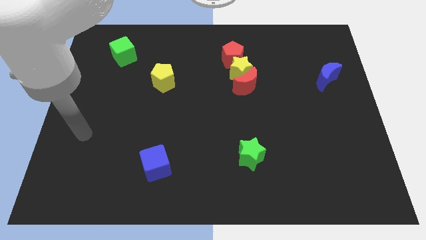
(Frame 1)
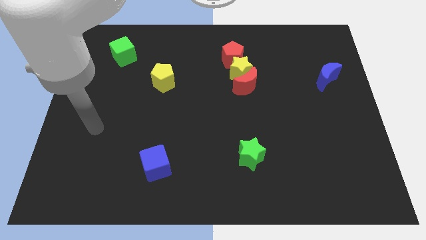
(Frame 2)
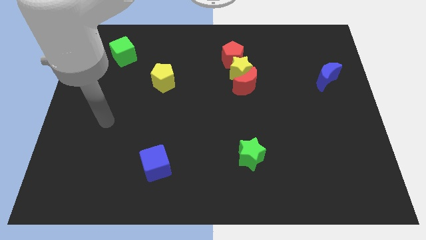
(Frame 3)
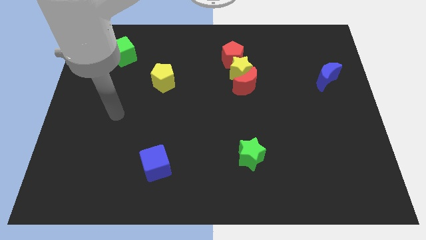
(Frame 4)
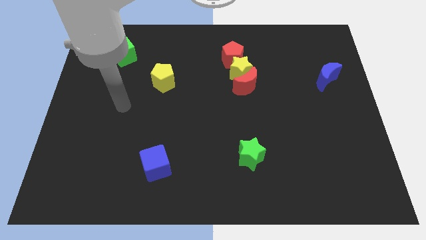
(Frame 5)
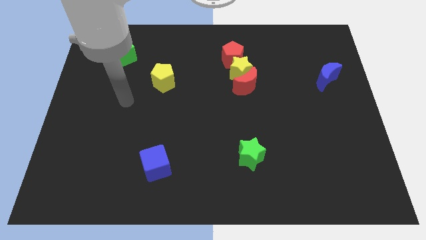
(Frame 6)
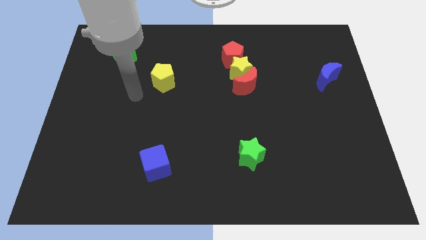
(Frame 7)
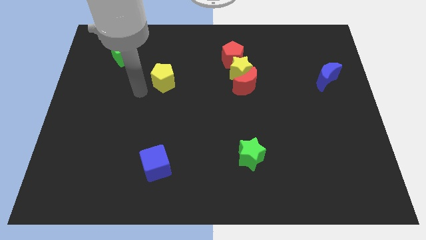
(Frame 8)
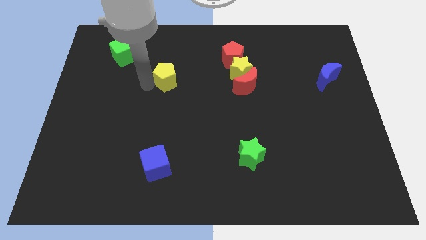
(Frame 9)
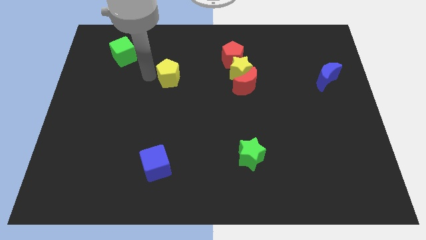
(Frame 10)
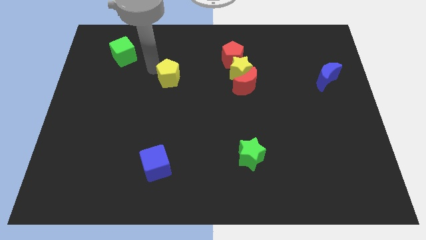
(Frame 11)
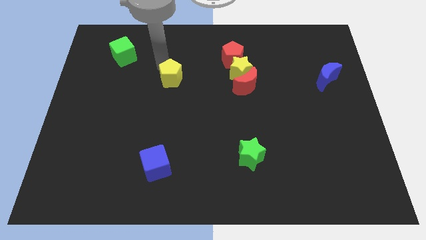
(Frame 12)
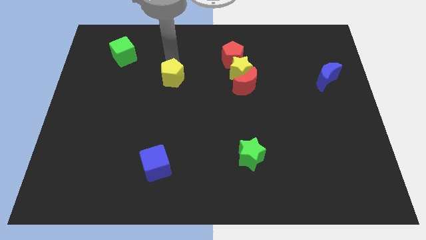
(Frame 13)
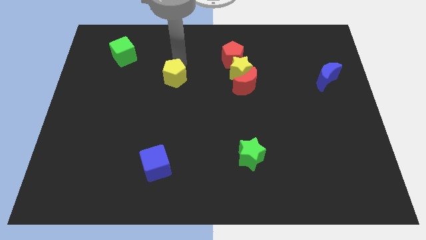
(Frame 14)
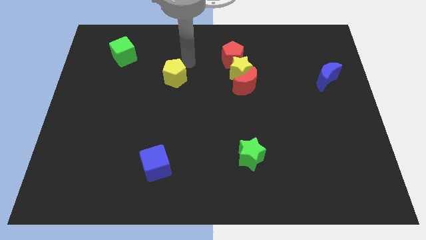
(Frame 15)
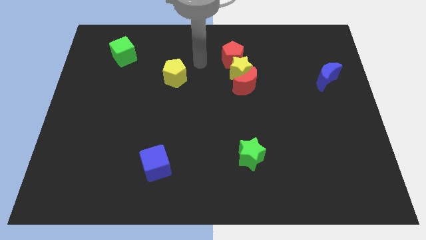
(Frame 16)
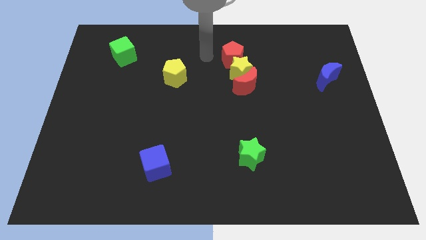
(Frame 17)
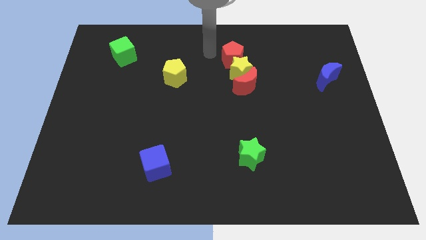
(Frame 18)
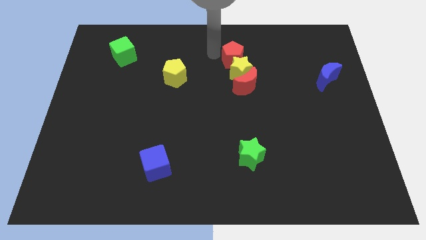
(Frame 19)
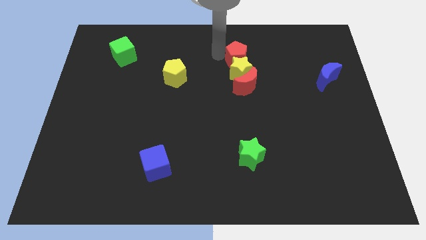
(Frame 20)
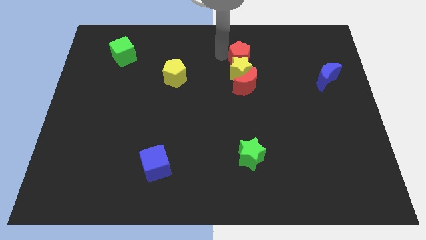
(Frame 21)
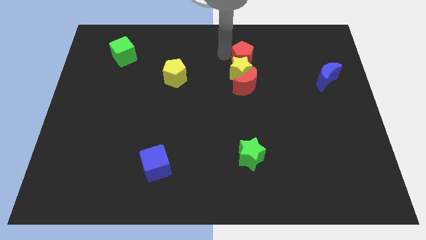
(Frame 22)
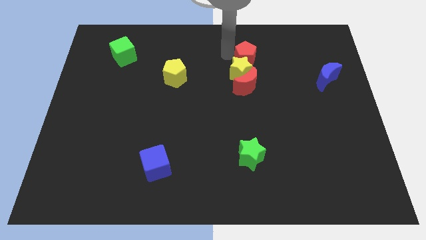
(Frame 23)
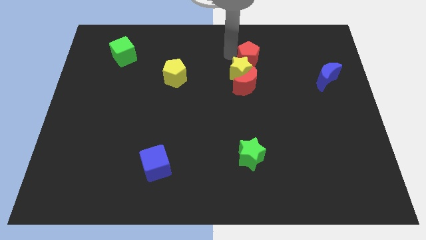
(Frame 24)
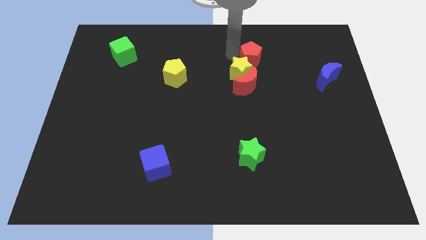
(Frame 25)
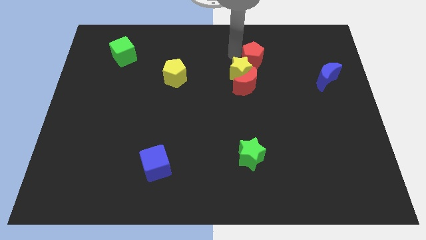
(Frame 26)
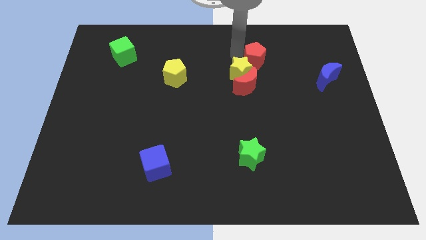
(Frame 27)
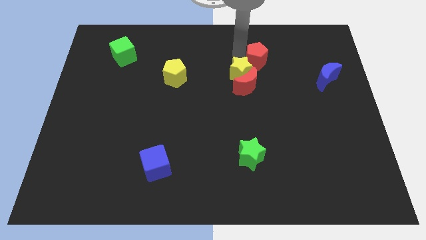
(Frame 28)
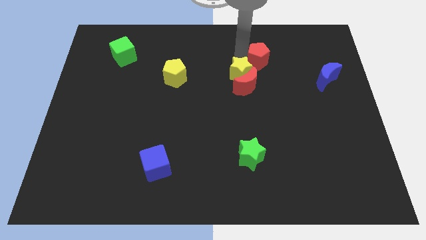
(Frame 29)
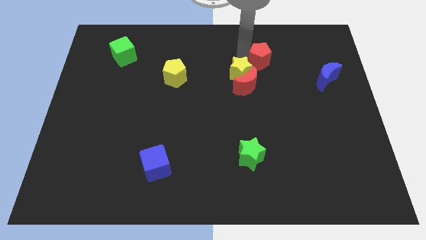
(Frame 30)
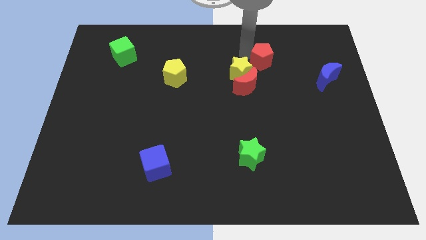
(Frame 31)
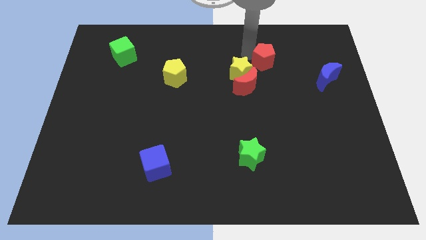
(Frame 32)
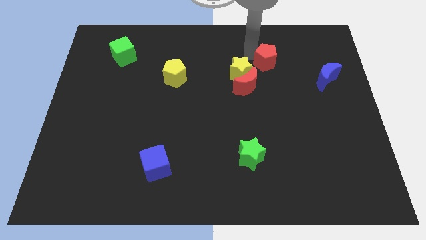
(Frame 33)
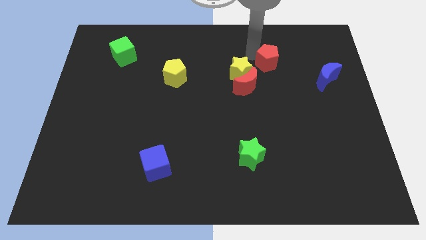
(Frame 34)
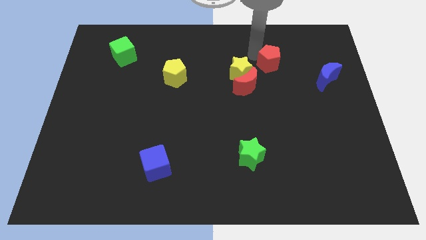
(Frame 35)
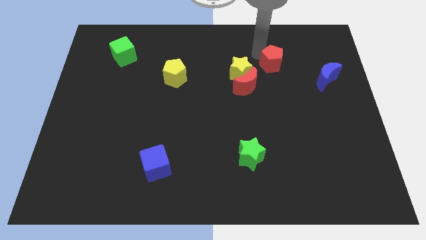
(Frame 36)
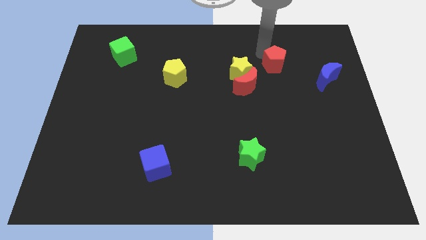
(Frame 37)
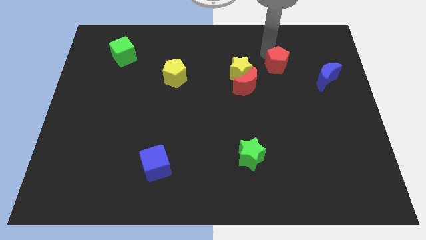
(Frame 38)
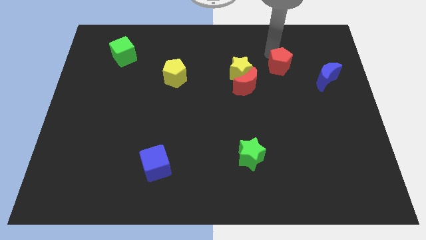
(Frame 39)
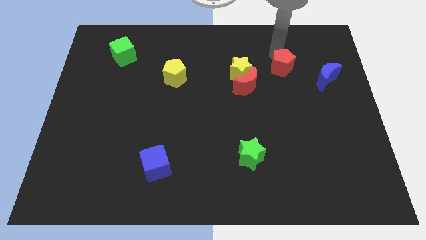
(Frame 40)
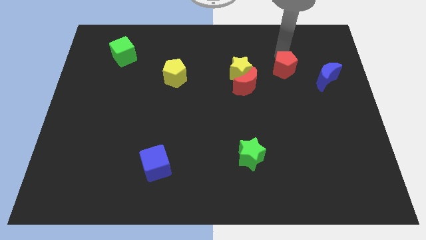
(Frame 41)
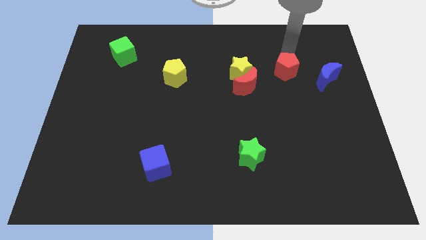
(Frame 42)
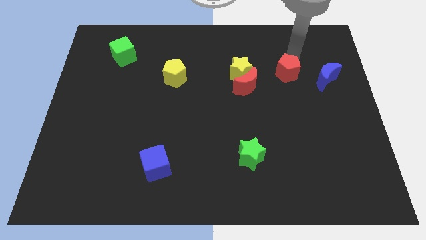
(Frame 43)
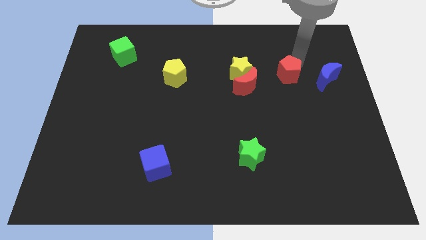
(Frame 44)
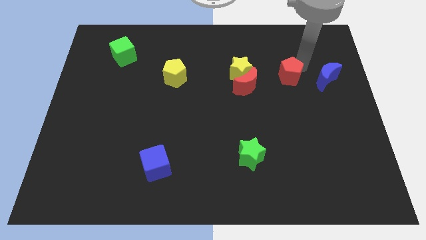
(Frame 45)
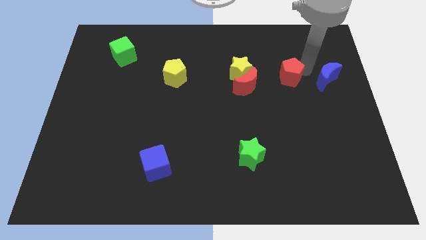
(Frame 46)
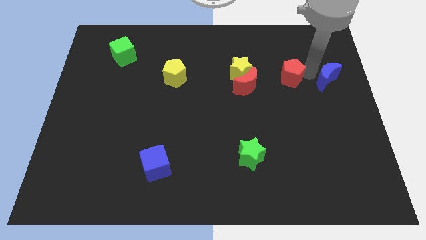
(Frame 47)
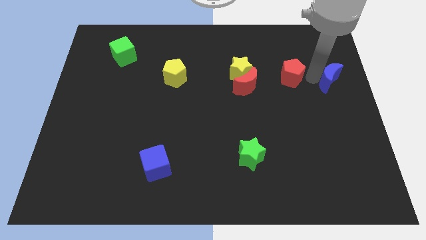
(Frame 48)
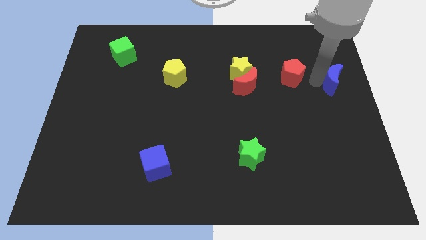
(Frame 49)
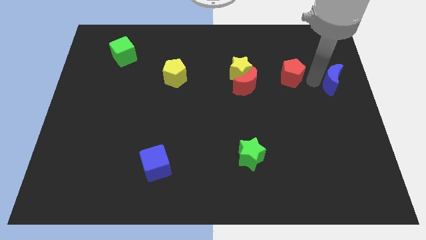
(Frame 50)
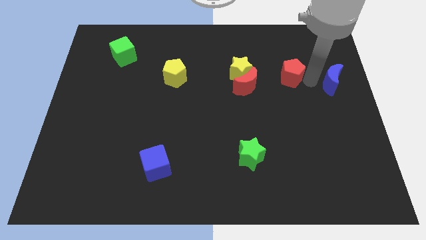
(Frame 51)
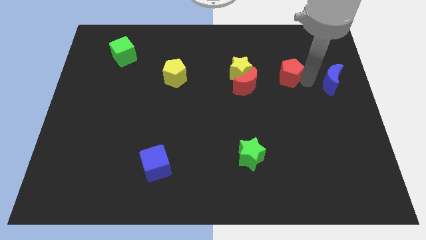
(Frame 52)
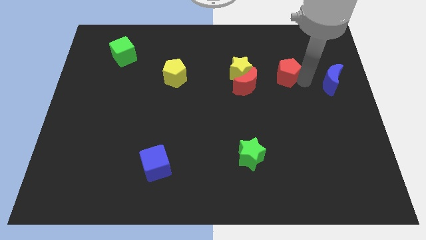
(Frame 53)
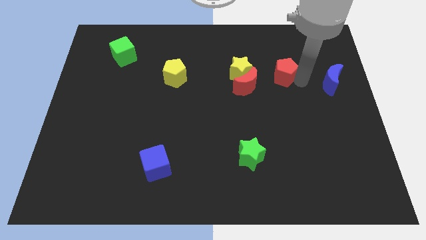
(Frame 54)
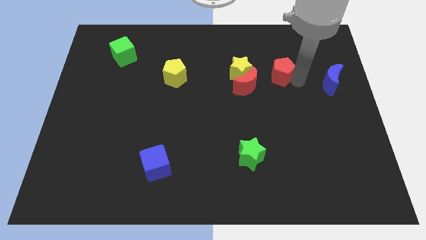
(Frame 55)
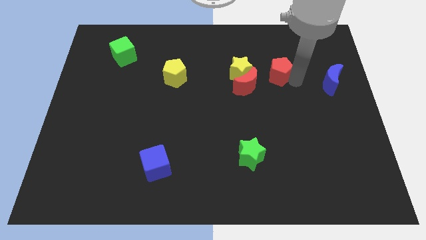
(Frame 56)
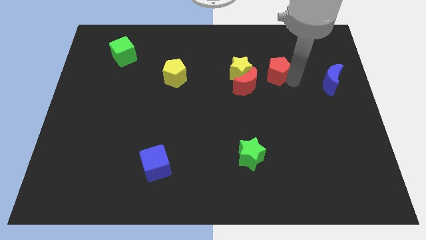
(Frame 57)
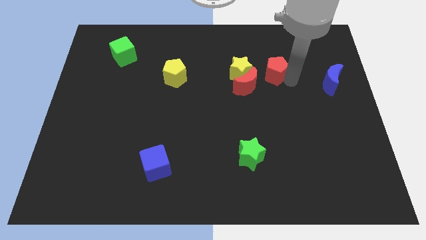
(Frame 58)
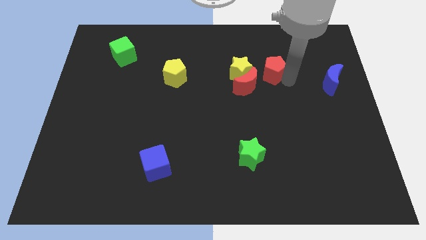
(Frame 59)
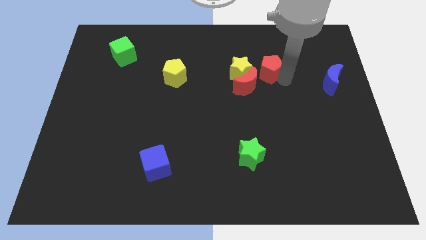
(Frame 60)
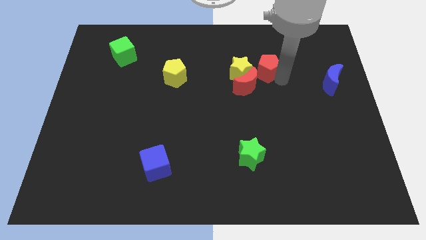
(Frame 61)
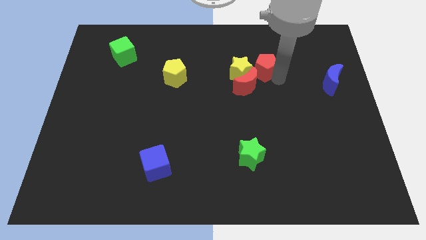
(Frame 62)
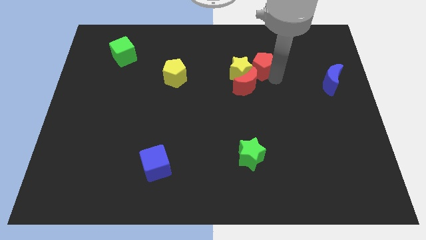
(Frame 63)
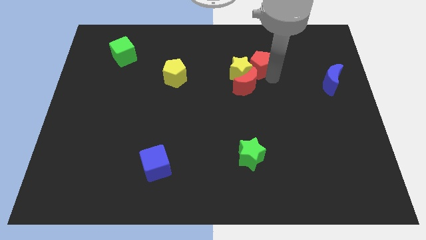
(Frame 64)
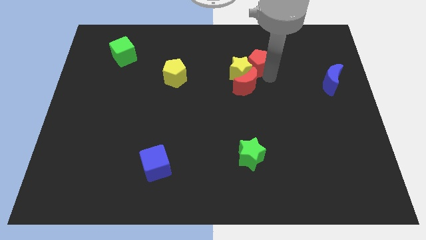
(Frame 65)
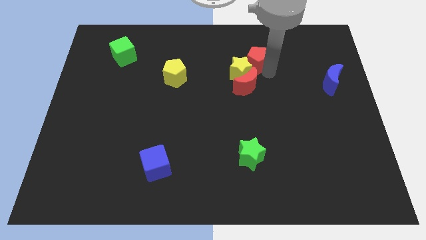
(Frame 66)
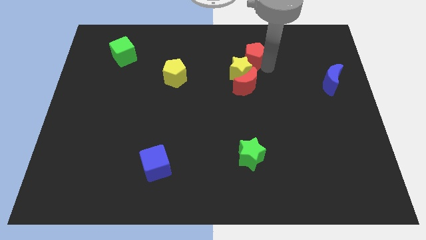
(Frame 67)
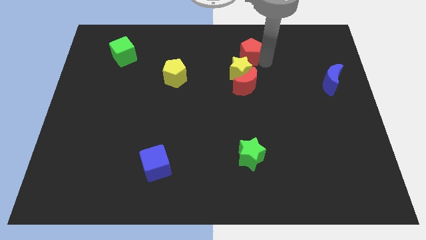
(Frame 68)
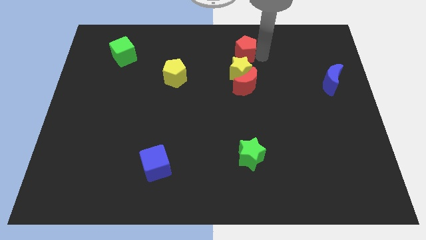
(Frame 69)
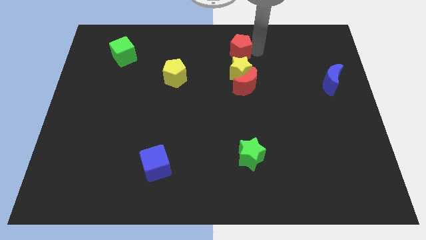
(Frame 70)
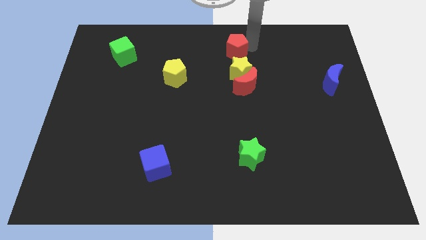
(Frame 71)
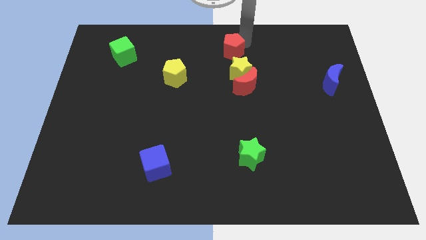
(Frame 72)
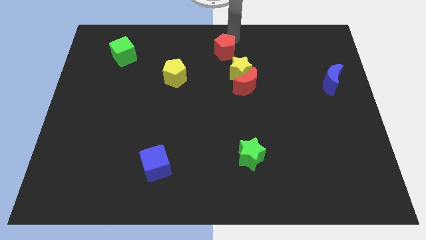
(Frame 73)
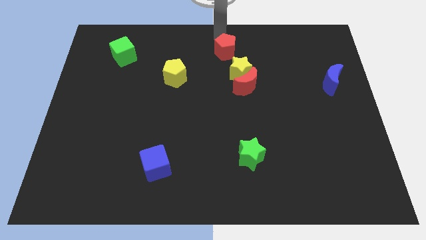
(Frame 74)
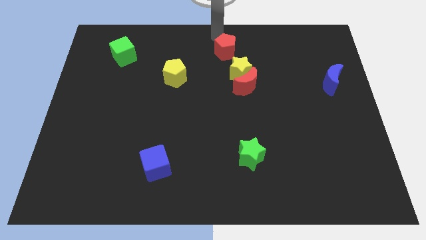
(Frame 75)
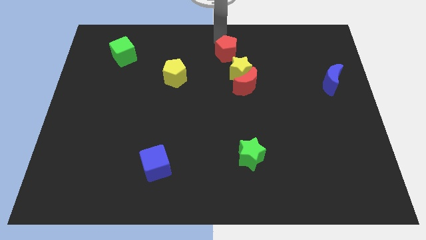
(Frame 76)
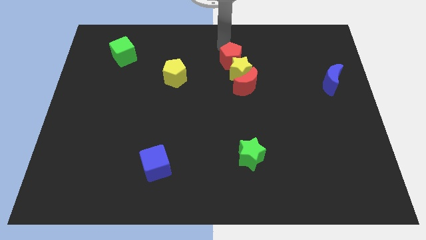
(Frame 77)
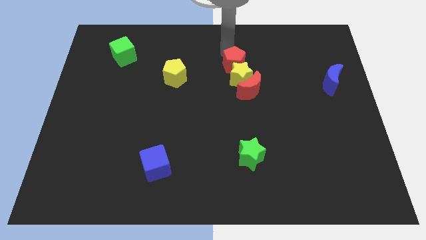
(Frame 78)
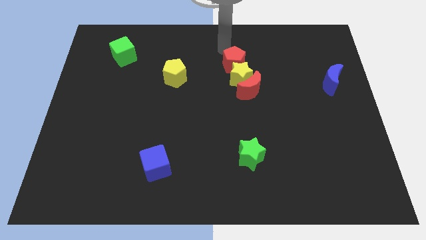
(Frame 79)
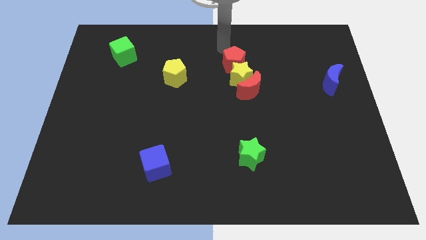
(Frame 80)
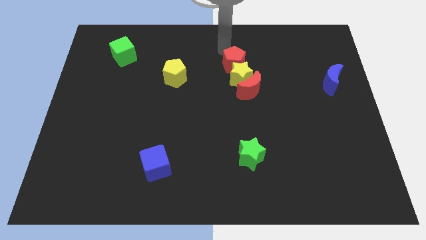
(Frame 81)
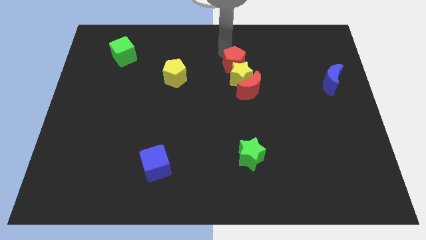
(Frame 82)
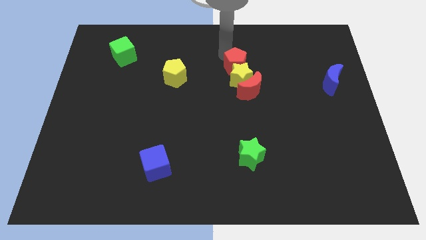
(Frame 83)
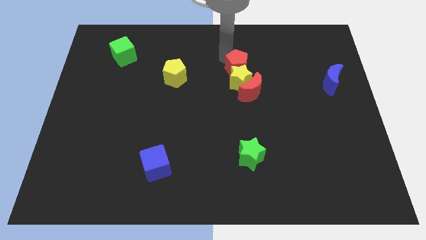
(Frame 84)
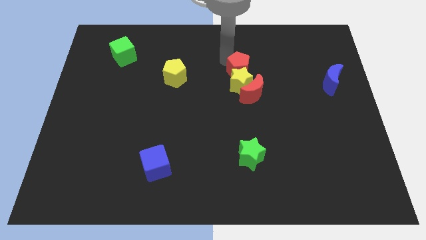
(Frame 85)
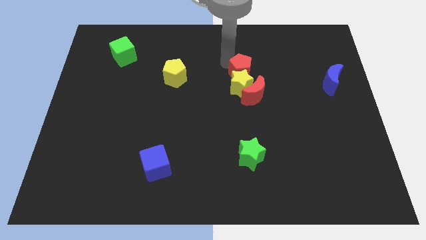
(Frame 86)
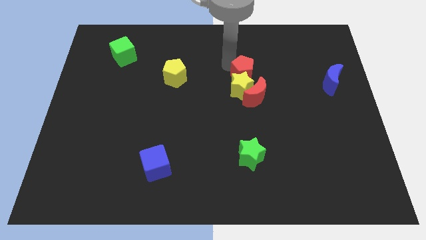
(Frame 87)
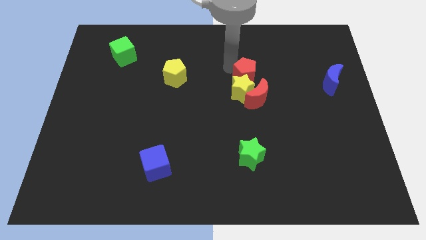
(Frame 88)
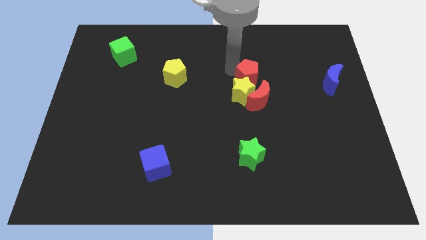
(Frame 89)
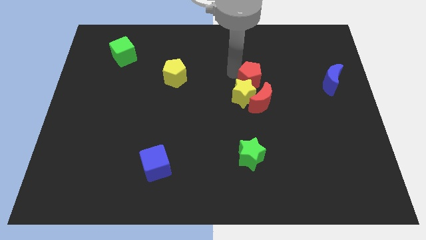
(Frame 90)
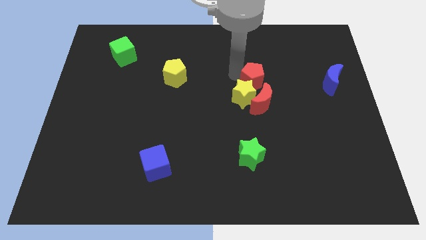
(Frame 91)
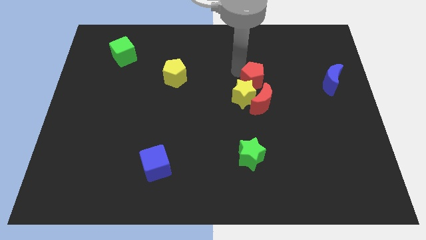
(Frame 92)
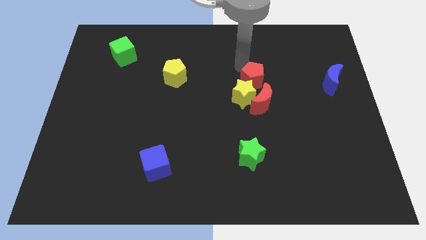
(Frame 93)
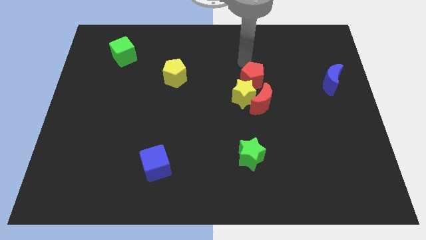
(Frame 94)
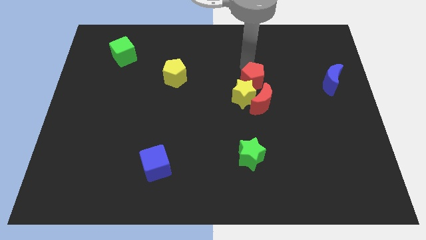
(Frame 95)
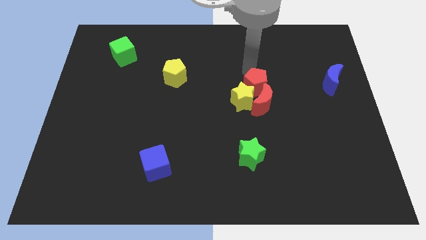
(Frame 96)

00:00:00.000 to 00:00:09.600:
slide the red pentagon to the red moon
